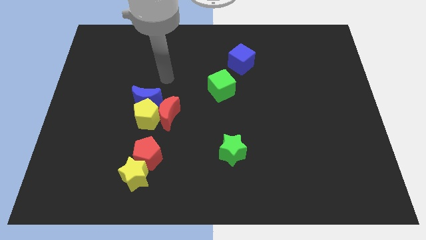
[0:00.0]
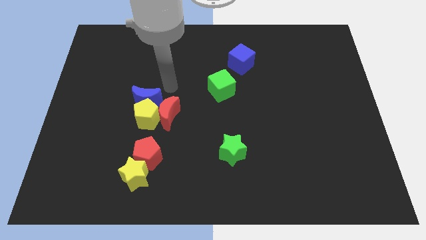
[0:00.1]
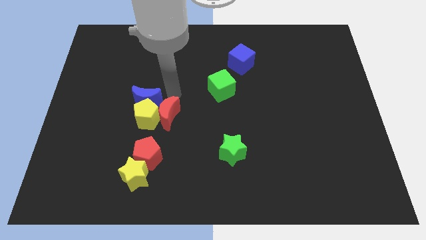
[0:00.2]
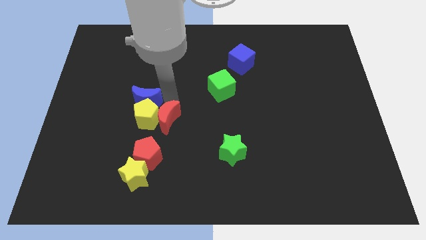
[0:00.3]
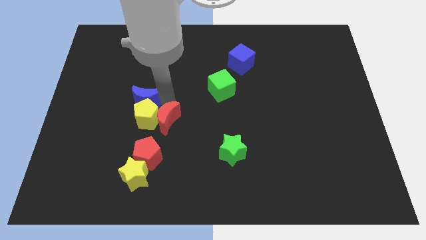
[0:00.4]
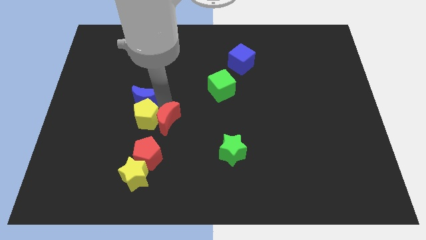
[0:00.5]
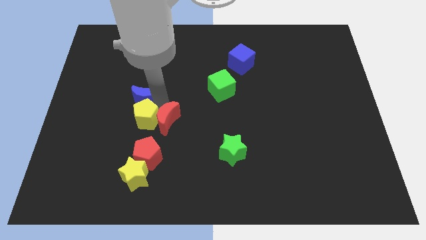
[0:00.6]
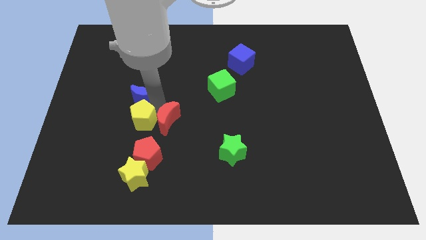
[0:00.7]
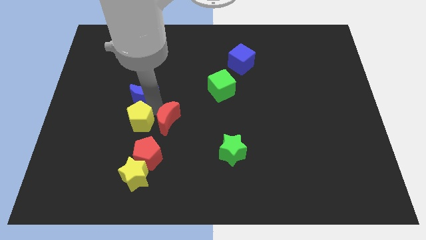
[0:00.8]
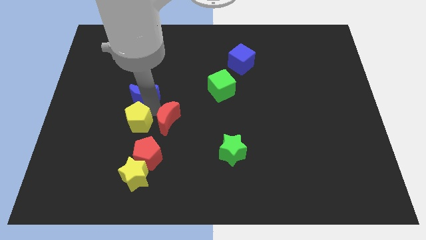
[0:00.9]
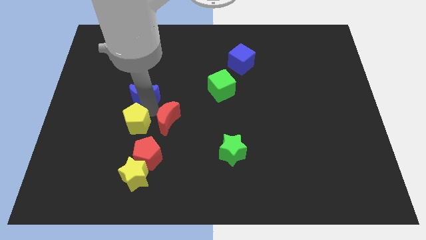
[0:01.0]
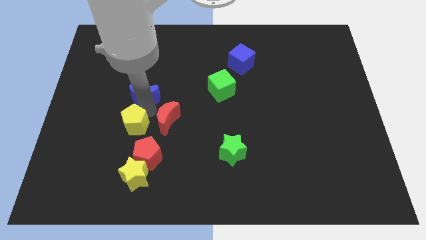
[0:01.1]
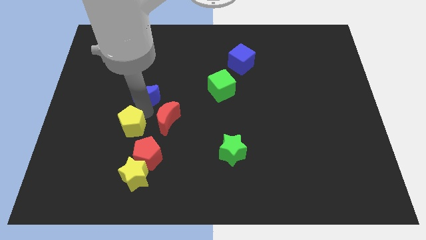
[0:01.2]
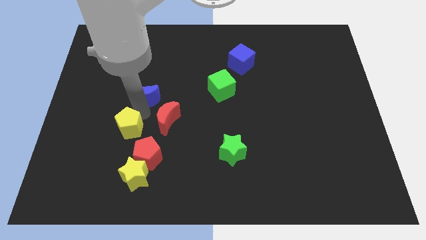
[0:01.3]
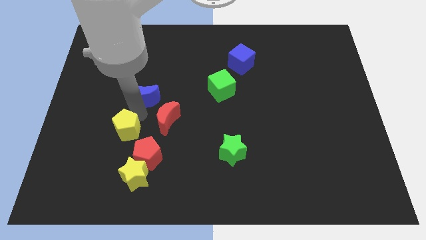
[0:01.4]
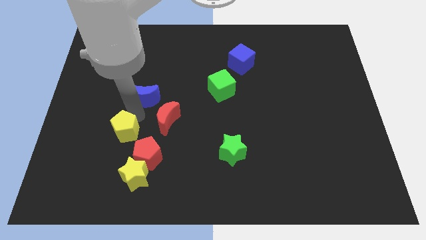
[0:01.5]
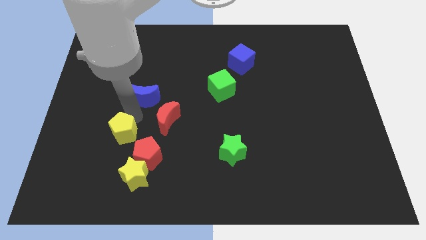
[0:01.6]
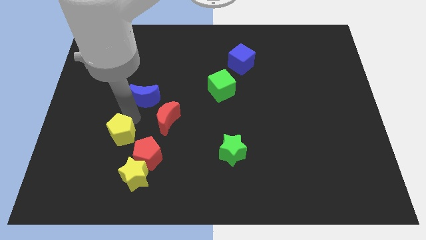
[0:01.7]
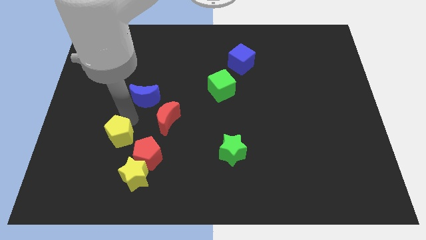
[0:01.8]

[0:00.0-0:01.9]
pull the yellow pentagon apart from the blue moon and red moon

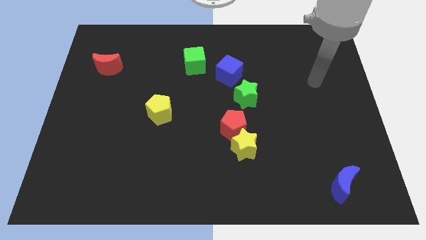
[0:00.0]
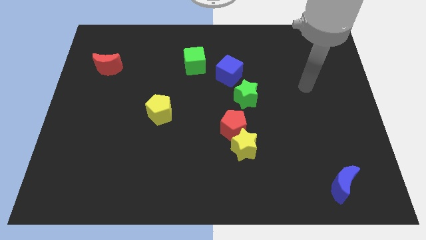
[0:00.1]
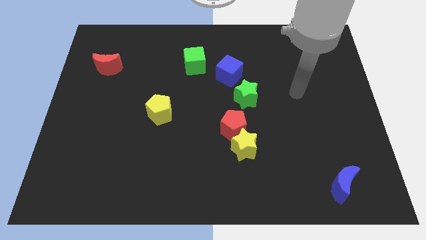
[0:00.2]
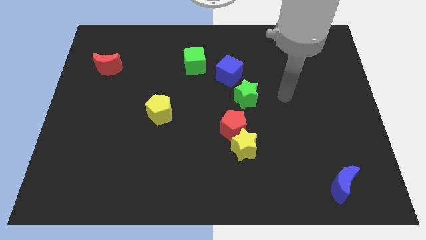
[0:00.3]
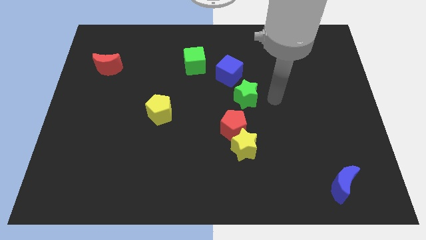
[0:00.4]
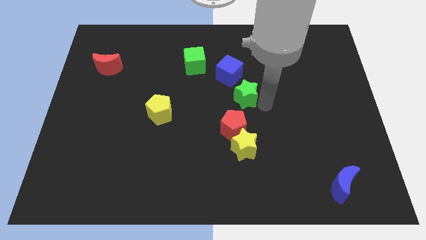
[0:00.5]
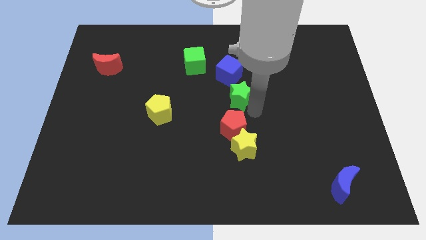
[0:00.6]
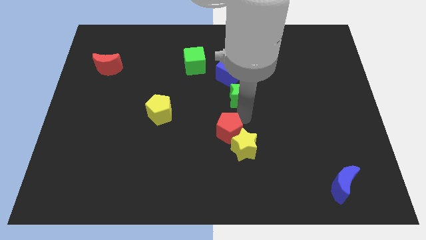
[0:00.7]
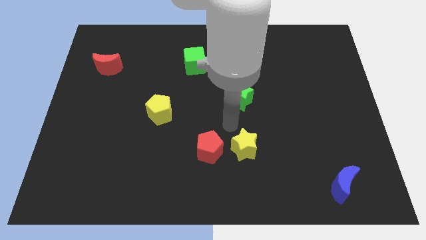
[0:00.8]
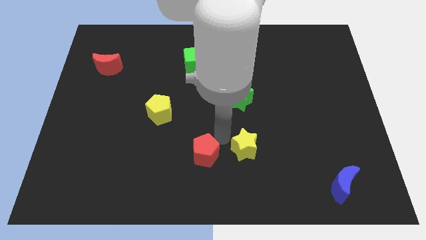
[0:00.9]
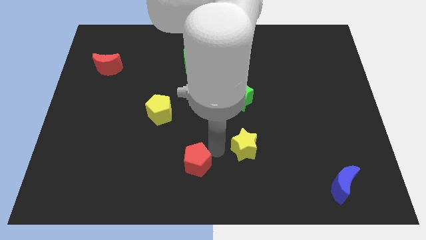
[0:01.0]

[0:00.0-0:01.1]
move the yellow star away from the red pentagon

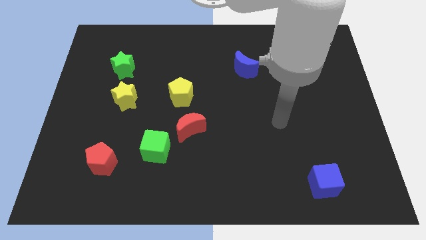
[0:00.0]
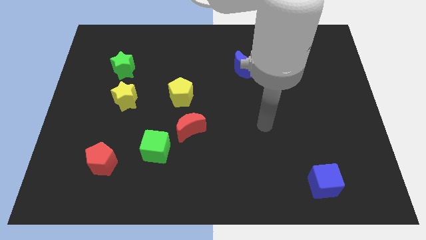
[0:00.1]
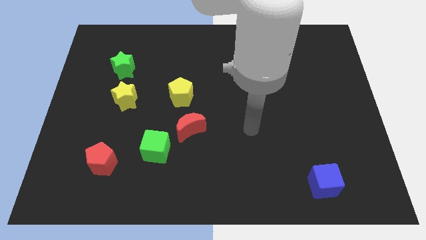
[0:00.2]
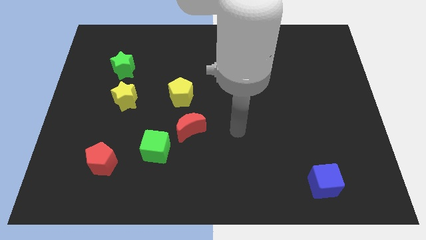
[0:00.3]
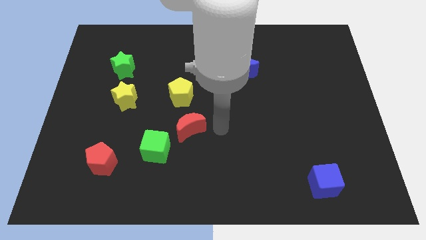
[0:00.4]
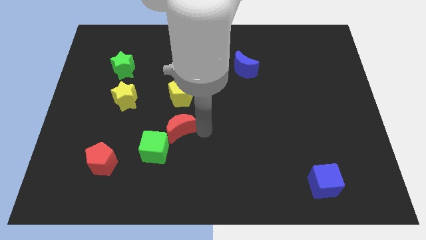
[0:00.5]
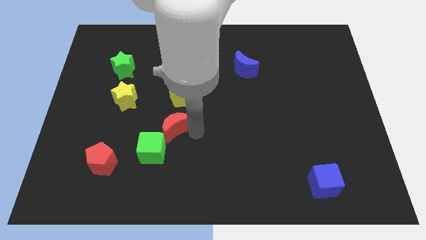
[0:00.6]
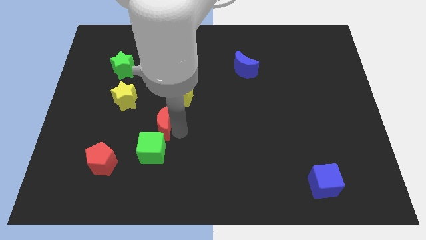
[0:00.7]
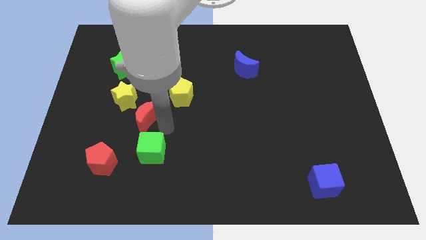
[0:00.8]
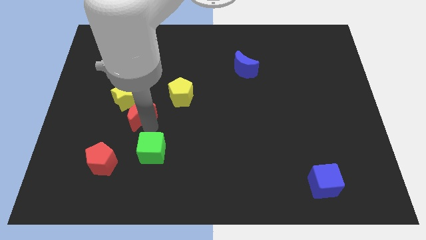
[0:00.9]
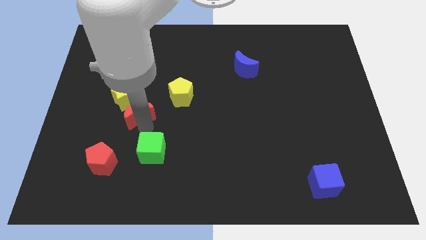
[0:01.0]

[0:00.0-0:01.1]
move the green cube away from the red moon

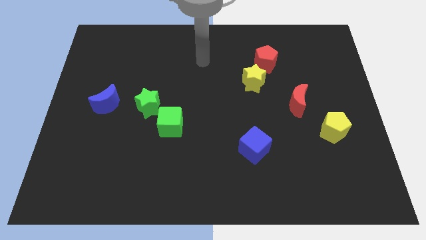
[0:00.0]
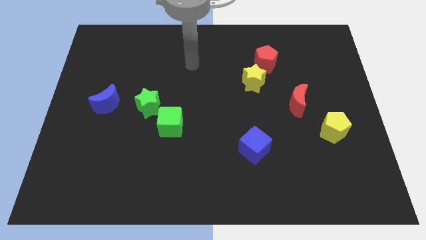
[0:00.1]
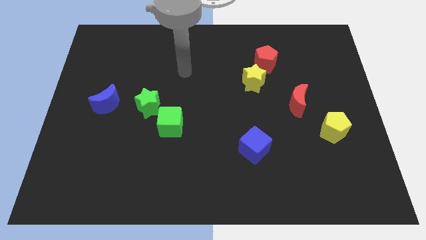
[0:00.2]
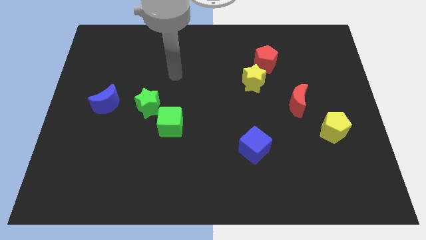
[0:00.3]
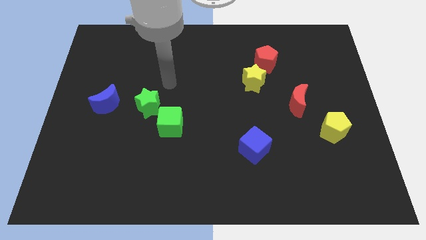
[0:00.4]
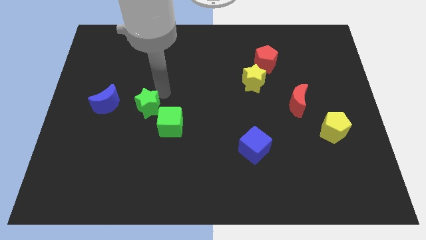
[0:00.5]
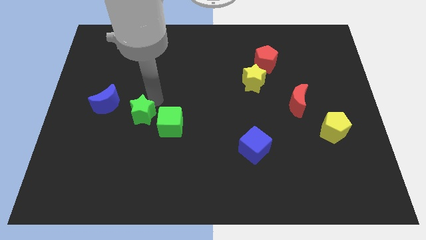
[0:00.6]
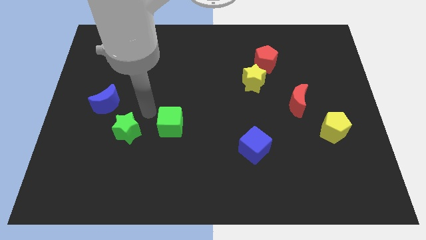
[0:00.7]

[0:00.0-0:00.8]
separate the green cube from the green star

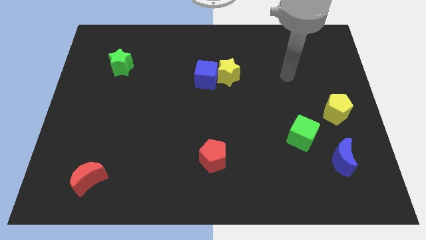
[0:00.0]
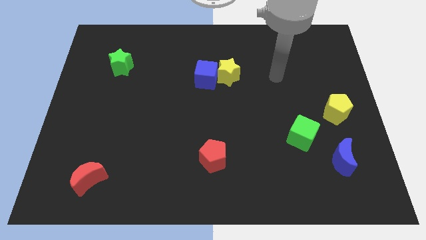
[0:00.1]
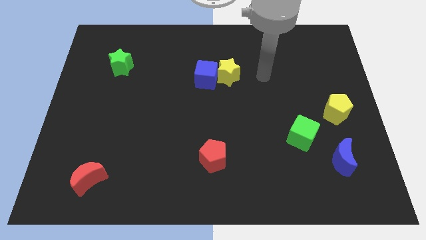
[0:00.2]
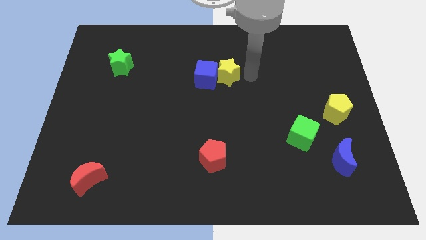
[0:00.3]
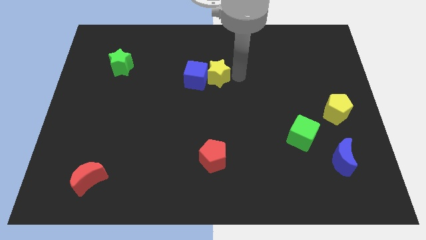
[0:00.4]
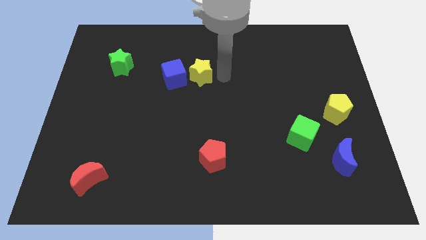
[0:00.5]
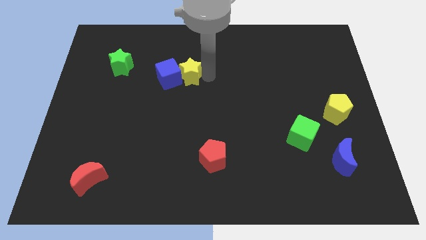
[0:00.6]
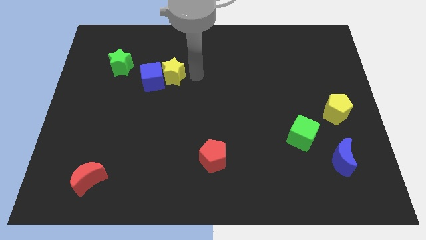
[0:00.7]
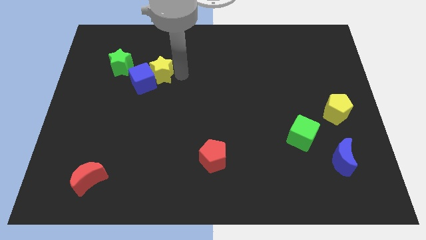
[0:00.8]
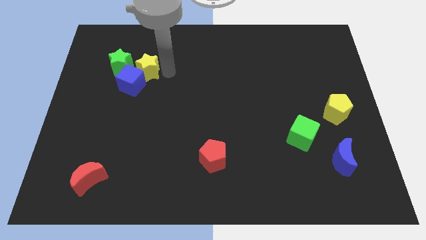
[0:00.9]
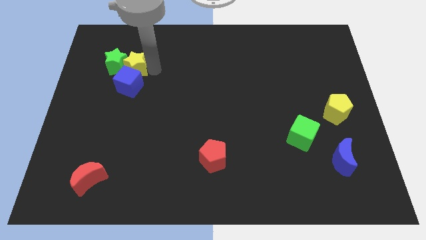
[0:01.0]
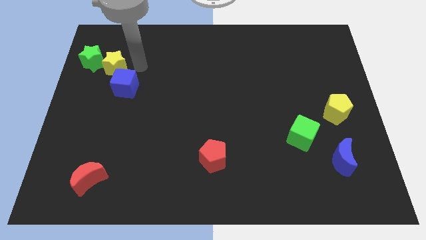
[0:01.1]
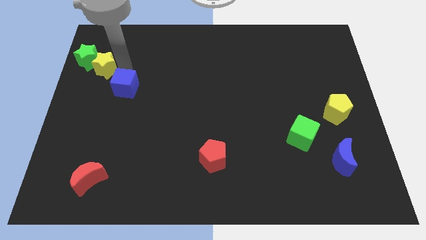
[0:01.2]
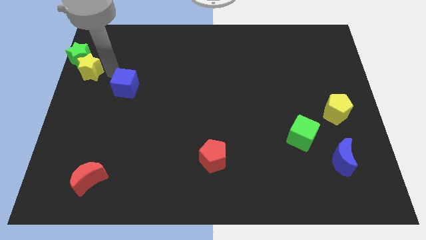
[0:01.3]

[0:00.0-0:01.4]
pull the blue cube apart from the yellow star

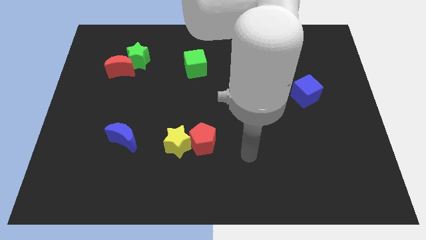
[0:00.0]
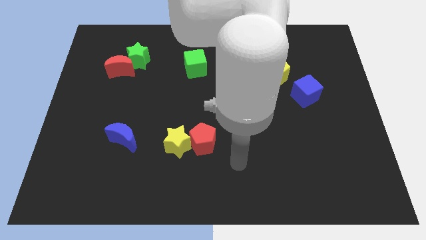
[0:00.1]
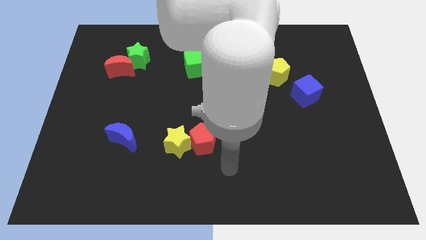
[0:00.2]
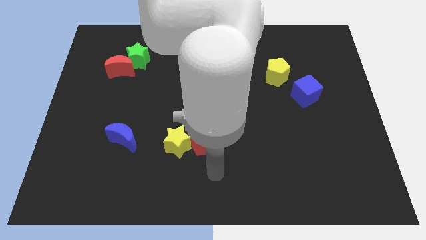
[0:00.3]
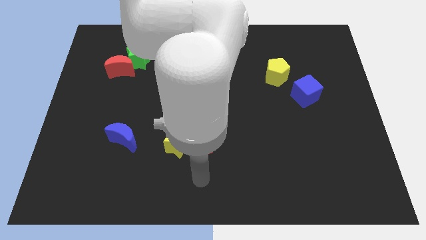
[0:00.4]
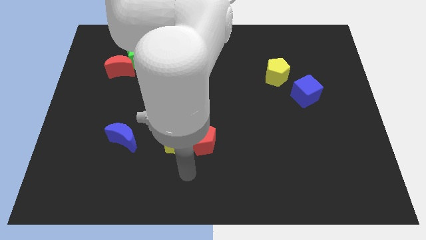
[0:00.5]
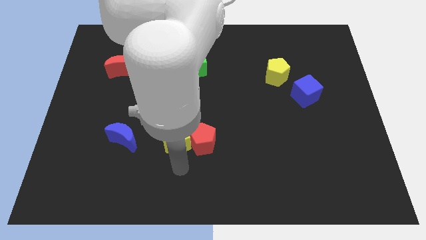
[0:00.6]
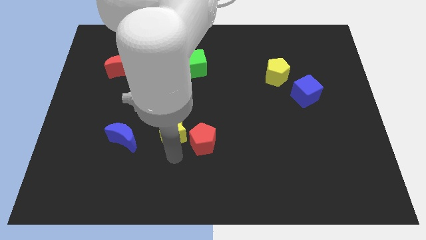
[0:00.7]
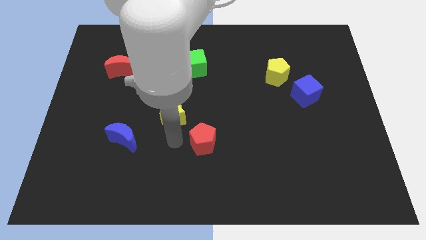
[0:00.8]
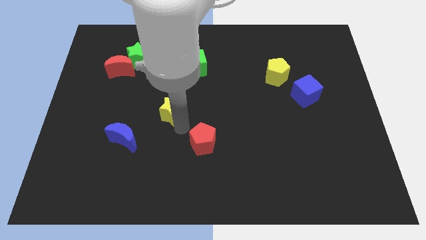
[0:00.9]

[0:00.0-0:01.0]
pull the red pentagon apart from the yellow star

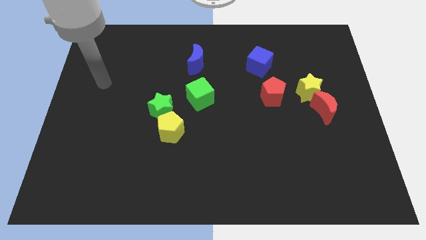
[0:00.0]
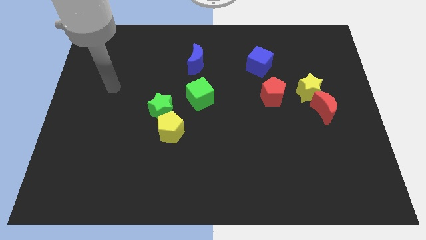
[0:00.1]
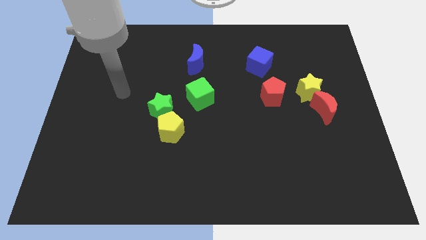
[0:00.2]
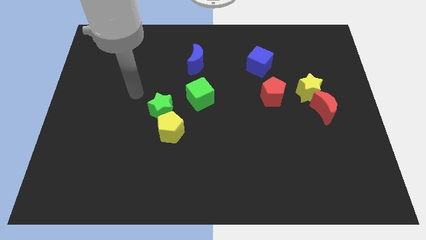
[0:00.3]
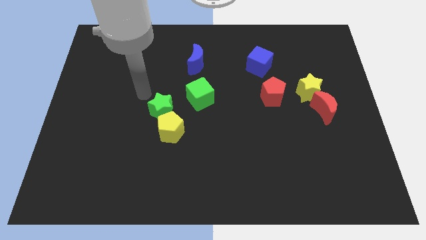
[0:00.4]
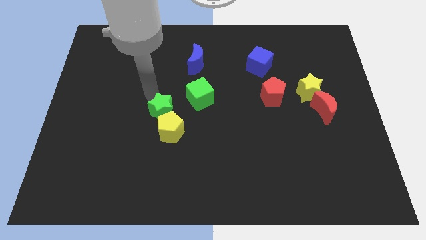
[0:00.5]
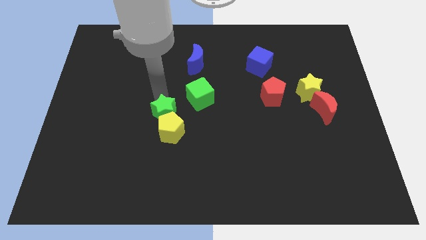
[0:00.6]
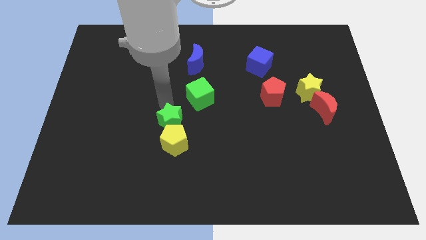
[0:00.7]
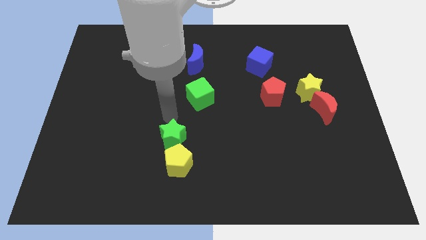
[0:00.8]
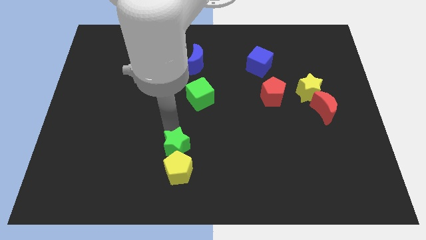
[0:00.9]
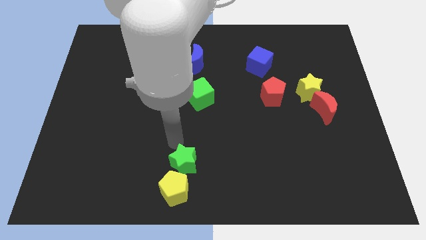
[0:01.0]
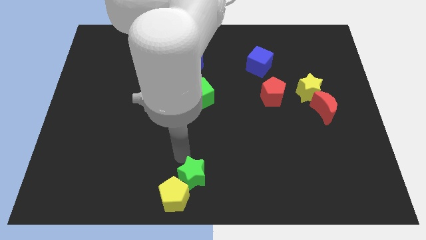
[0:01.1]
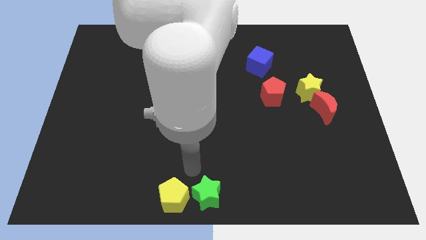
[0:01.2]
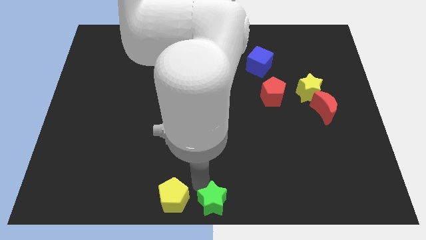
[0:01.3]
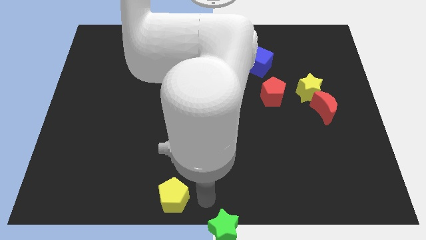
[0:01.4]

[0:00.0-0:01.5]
pull the yellow pentagon apart from the green star

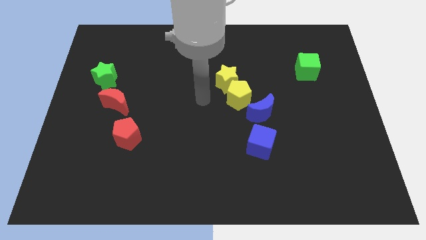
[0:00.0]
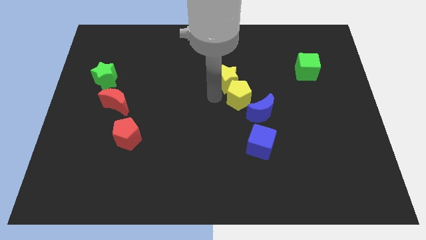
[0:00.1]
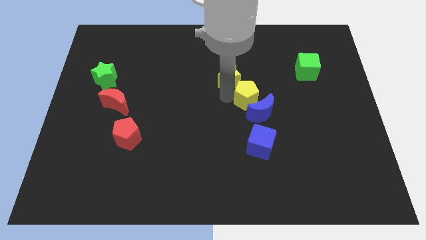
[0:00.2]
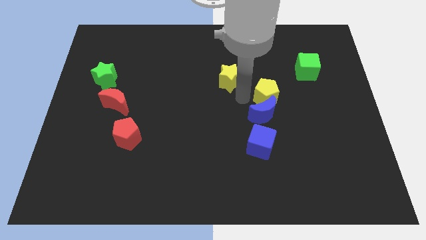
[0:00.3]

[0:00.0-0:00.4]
move the yellow star away from the yellow pentagon
